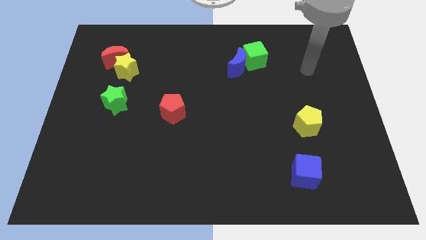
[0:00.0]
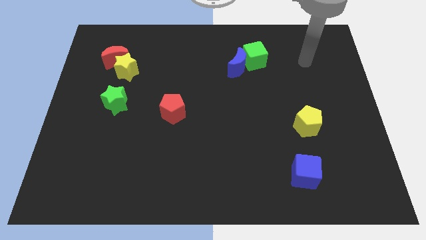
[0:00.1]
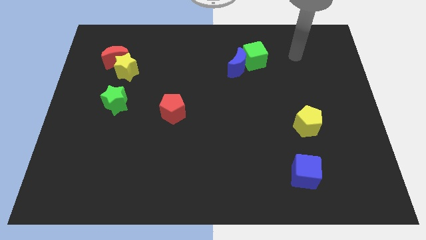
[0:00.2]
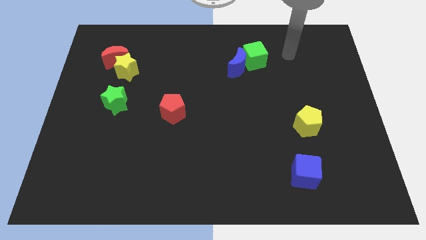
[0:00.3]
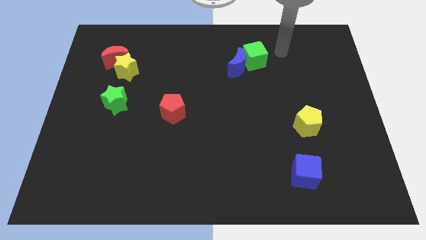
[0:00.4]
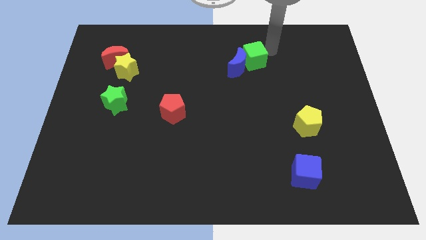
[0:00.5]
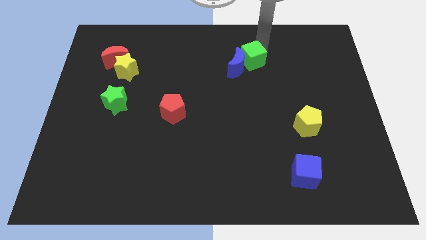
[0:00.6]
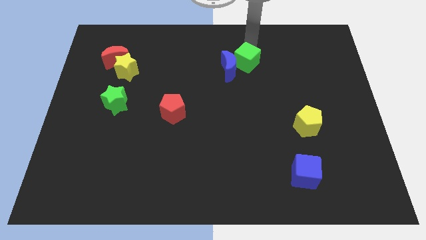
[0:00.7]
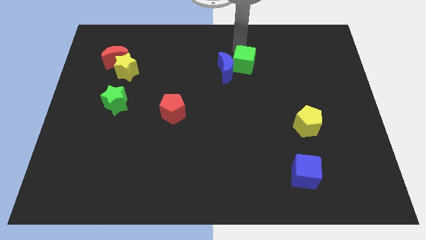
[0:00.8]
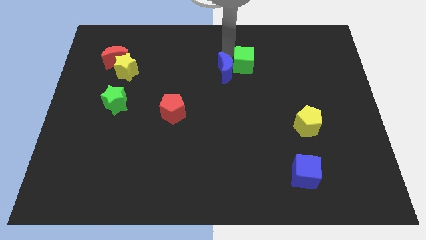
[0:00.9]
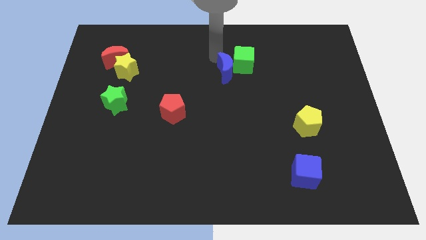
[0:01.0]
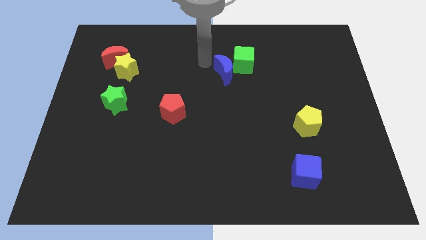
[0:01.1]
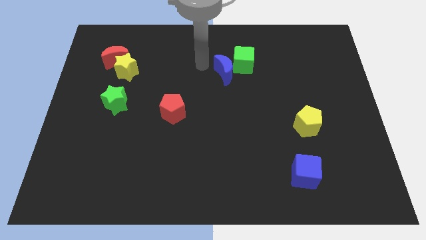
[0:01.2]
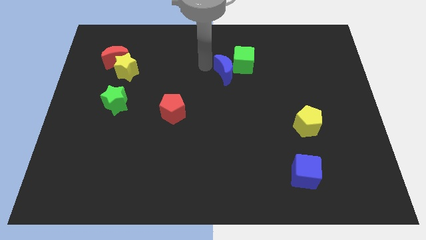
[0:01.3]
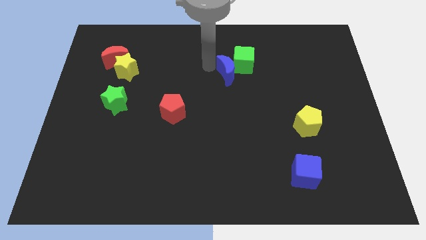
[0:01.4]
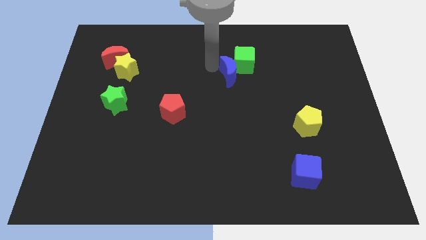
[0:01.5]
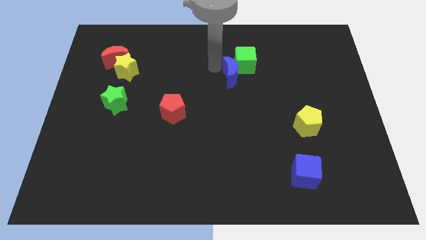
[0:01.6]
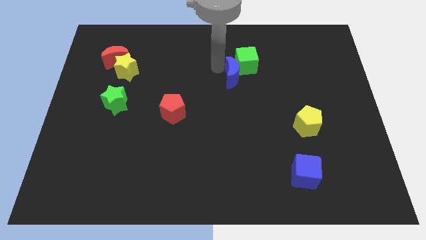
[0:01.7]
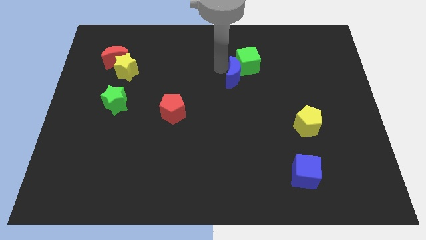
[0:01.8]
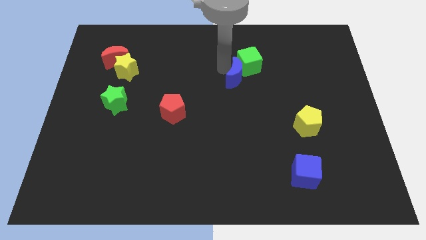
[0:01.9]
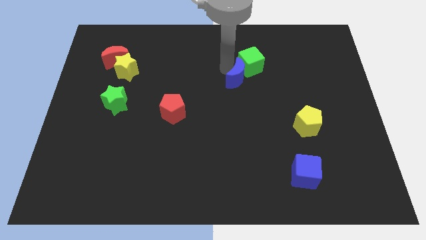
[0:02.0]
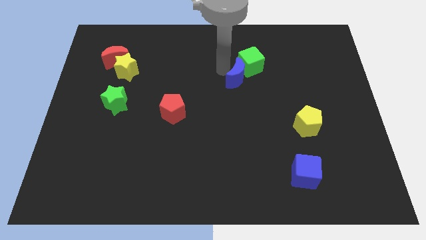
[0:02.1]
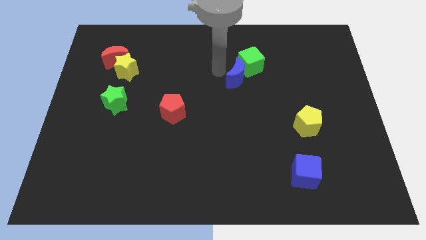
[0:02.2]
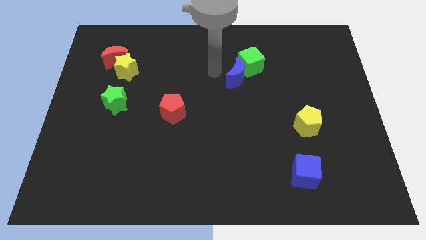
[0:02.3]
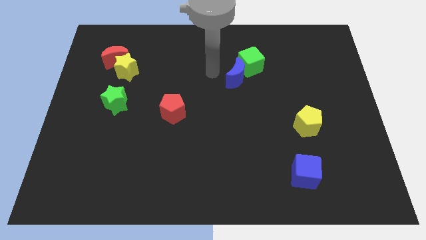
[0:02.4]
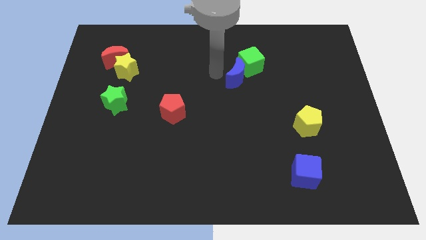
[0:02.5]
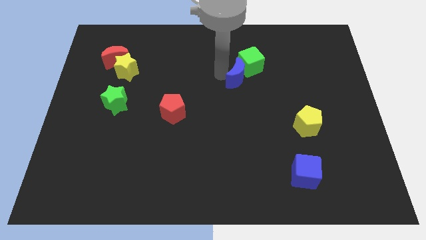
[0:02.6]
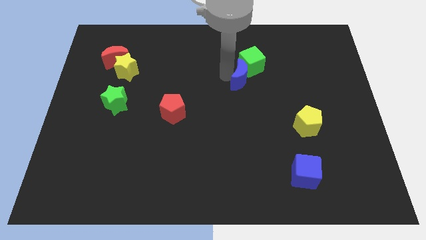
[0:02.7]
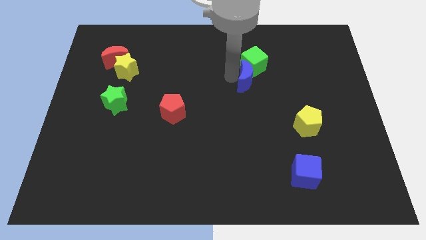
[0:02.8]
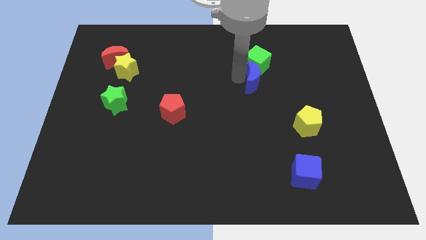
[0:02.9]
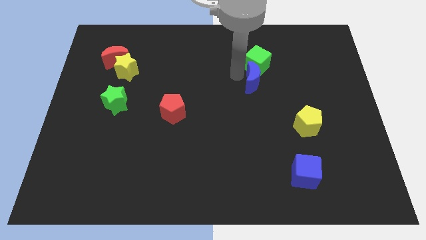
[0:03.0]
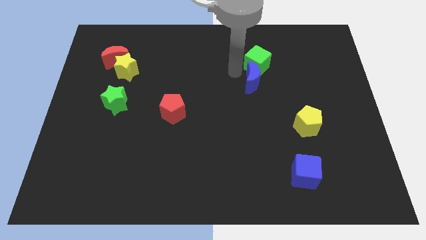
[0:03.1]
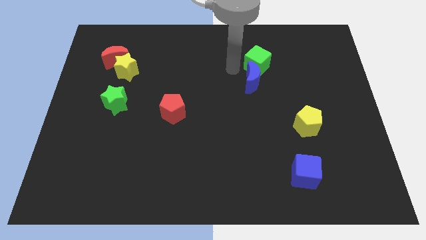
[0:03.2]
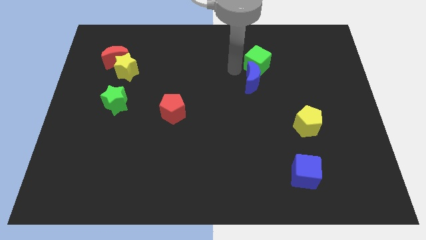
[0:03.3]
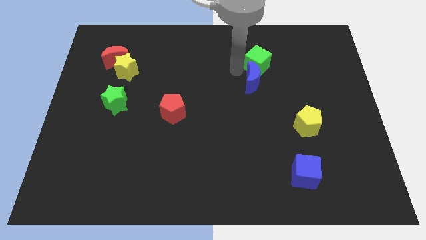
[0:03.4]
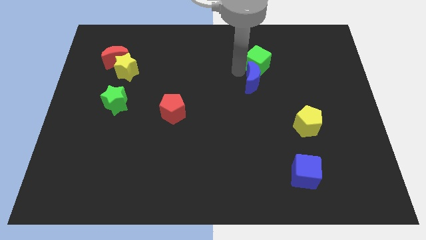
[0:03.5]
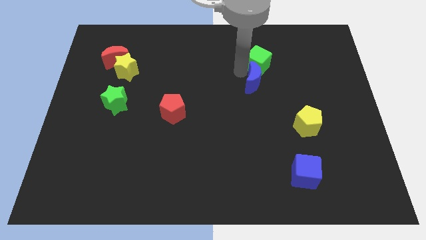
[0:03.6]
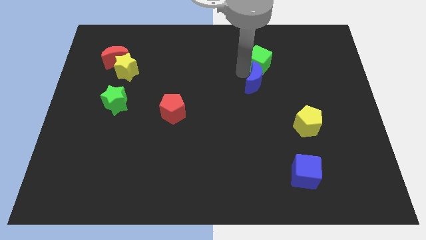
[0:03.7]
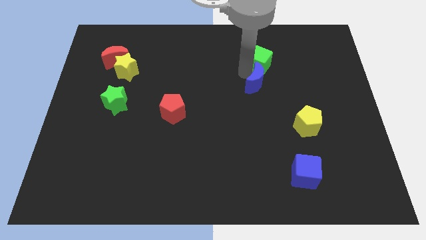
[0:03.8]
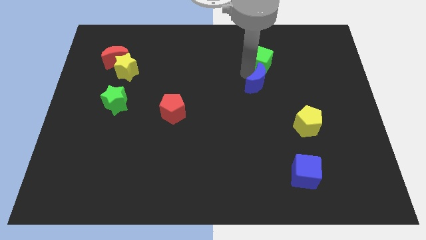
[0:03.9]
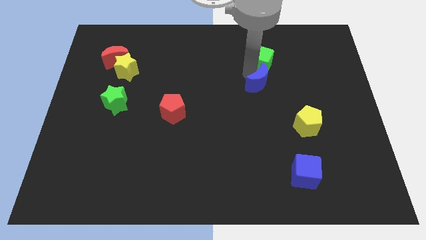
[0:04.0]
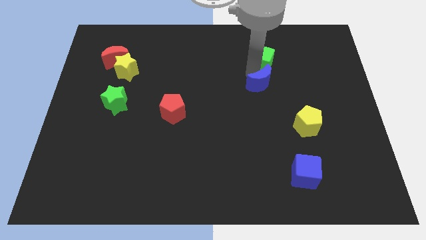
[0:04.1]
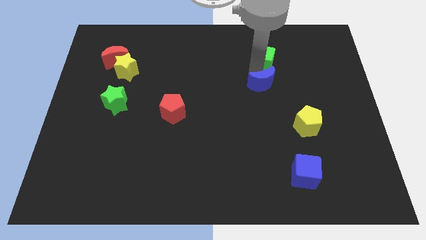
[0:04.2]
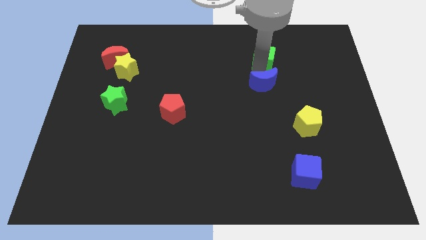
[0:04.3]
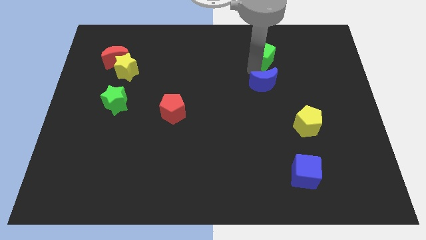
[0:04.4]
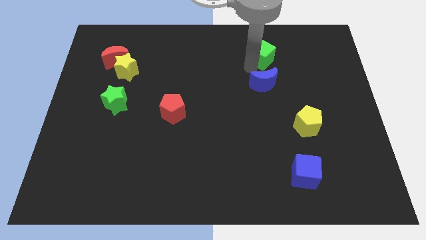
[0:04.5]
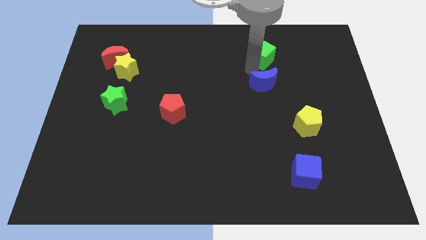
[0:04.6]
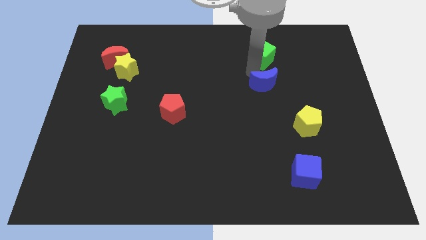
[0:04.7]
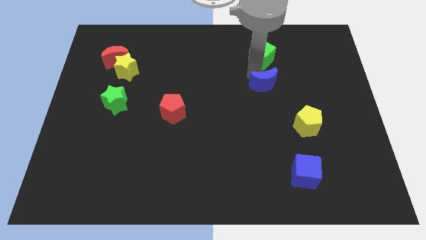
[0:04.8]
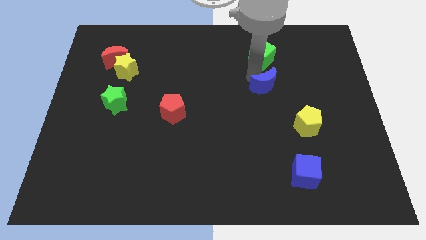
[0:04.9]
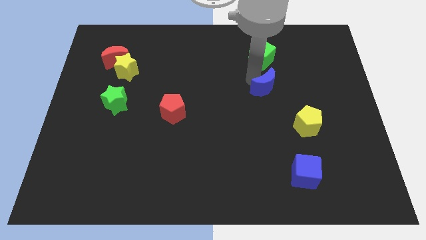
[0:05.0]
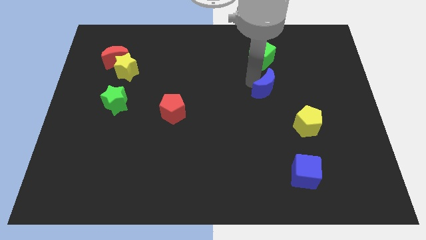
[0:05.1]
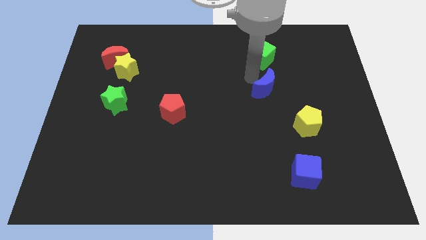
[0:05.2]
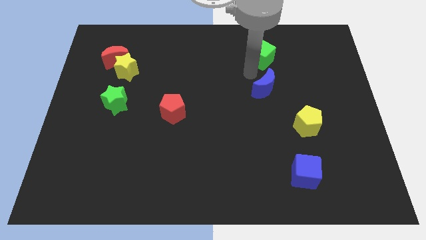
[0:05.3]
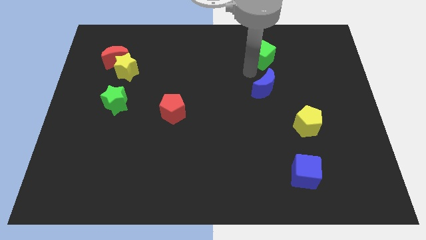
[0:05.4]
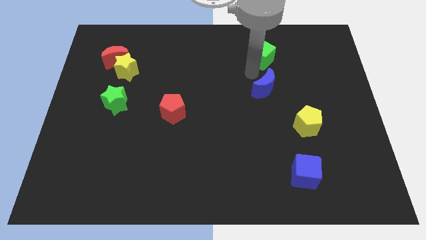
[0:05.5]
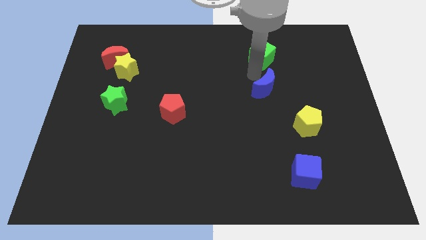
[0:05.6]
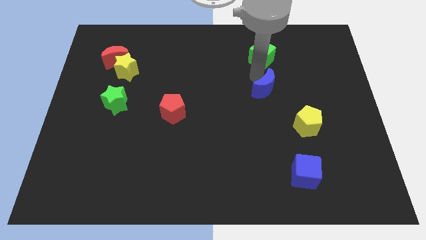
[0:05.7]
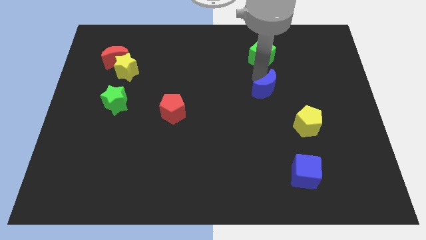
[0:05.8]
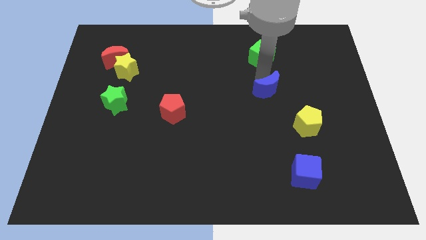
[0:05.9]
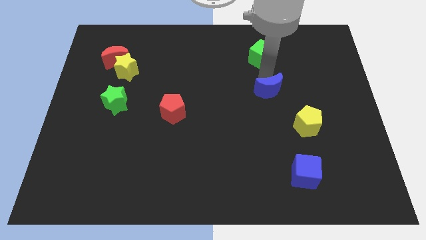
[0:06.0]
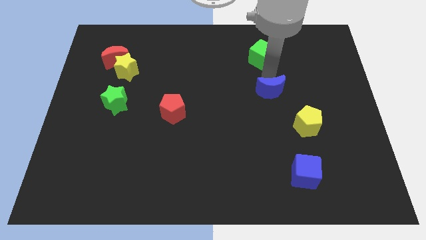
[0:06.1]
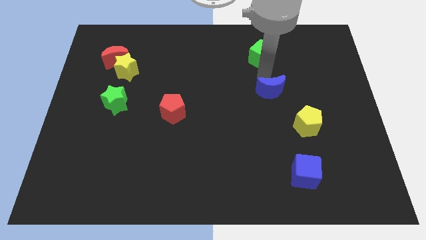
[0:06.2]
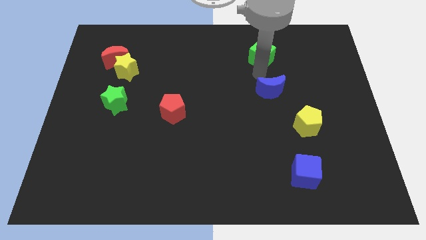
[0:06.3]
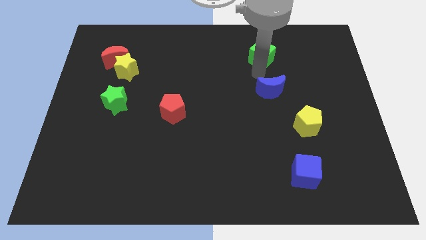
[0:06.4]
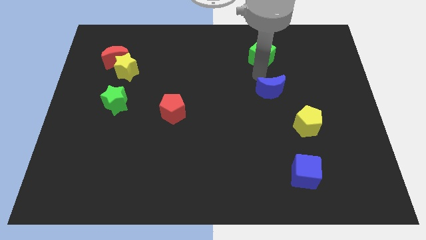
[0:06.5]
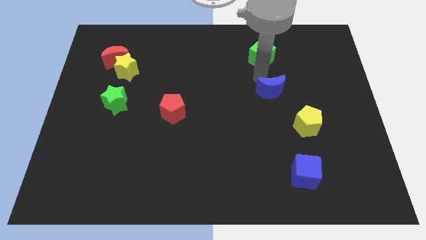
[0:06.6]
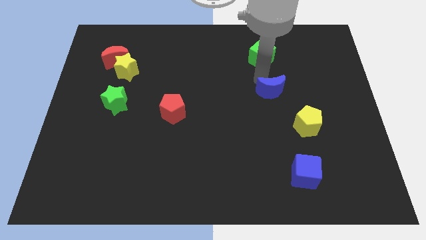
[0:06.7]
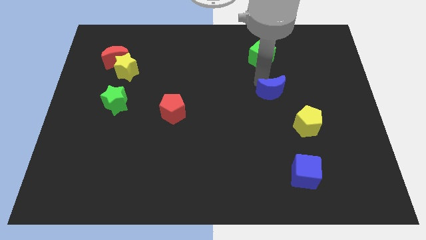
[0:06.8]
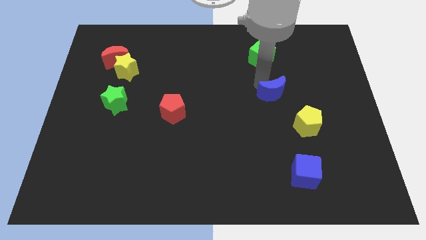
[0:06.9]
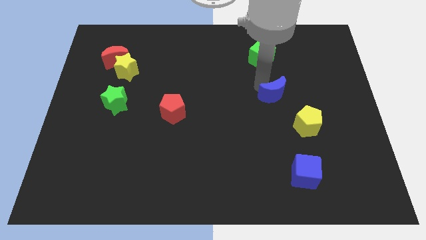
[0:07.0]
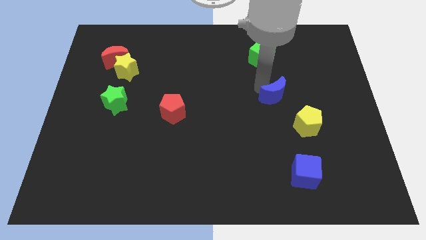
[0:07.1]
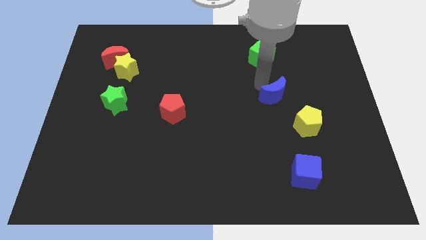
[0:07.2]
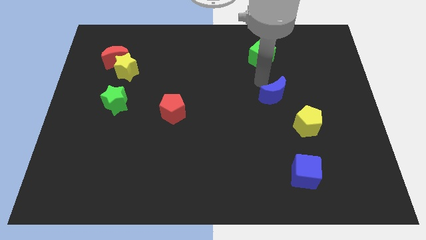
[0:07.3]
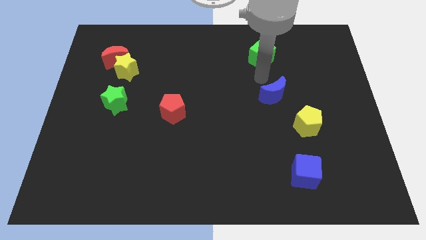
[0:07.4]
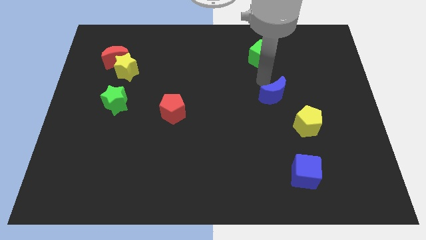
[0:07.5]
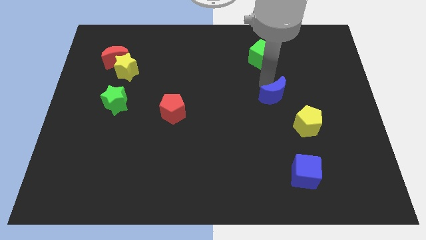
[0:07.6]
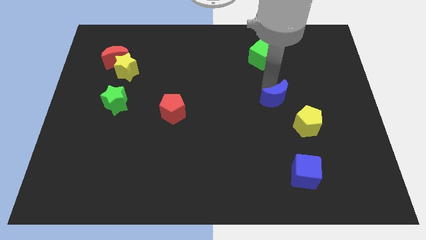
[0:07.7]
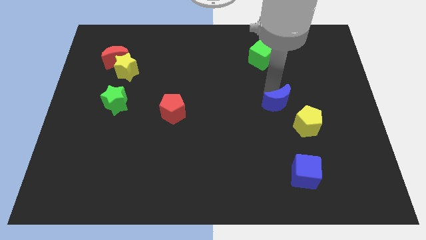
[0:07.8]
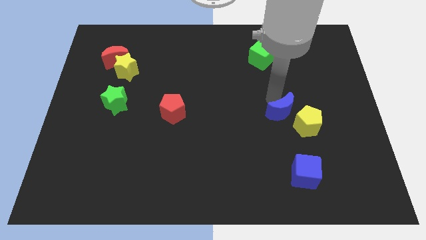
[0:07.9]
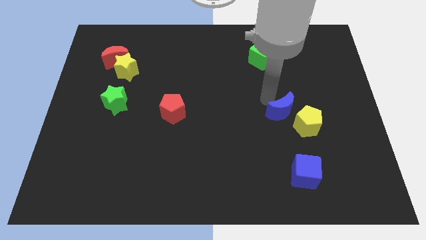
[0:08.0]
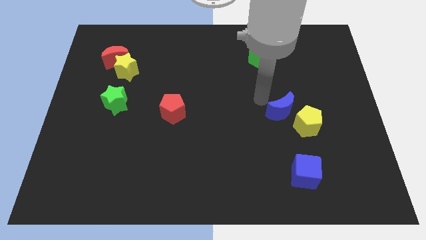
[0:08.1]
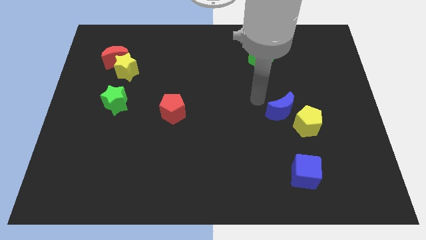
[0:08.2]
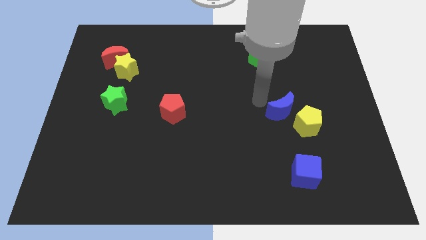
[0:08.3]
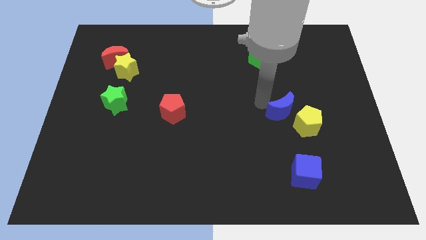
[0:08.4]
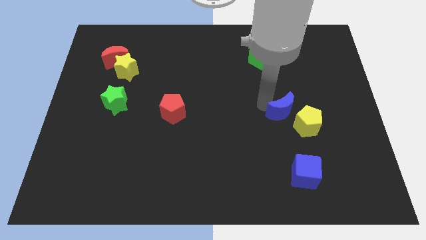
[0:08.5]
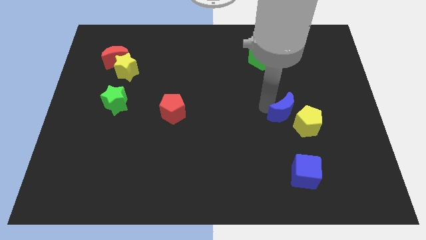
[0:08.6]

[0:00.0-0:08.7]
push the blue moon towards the yellow pentagon
